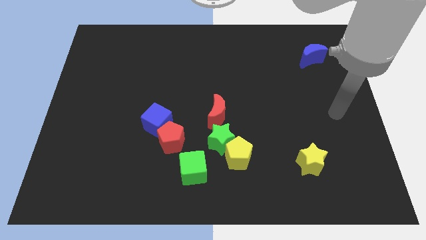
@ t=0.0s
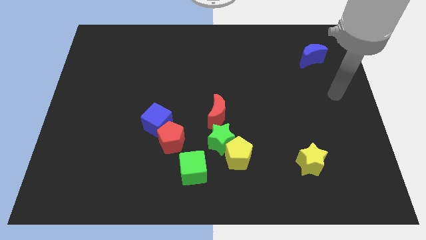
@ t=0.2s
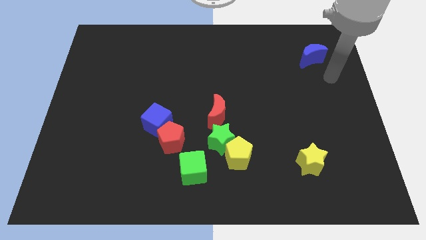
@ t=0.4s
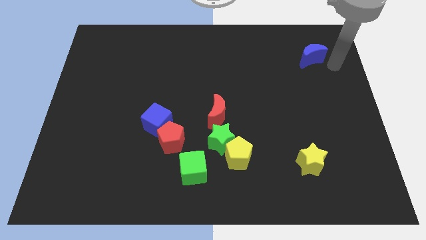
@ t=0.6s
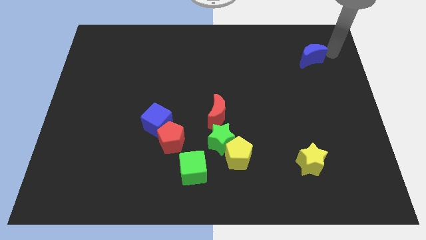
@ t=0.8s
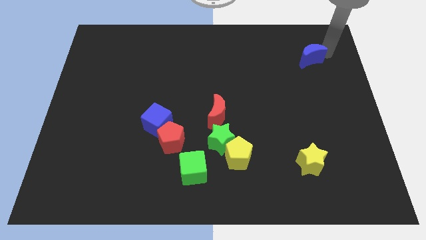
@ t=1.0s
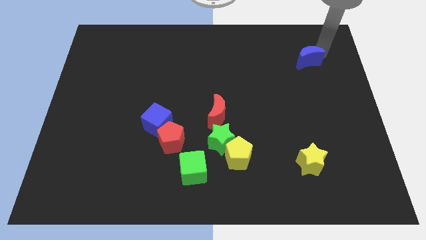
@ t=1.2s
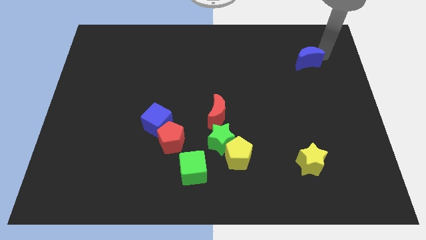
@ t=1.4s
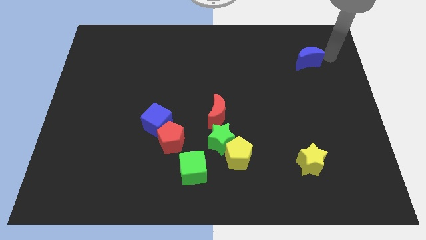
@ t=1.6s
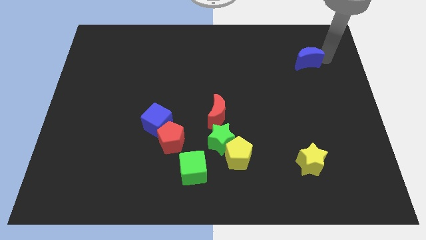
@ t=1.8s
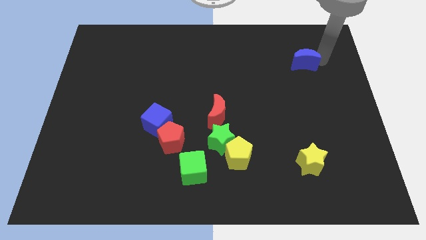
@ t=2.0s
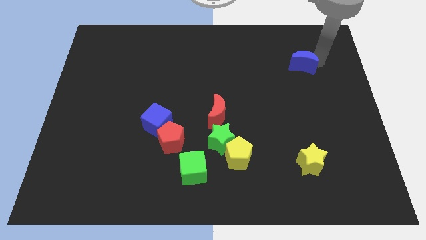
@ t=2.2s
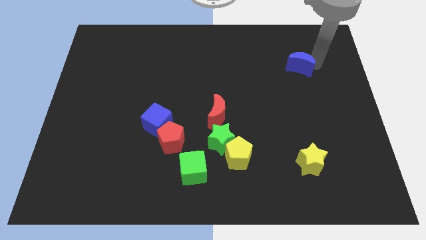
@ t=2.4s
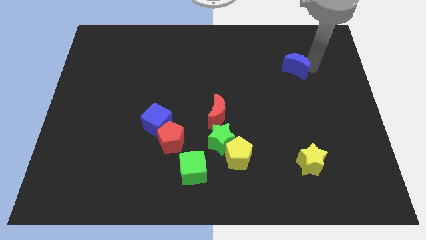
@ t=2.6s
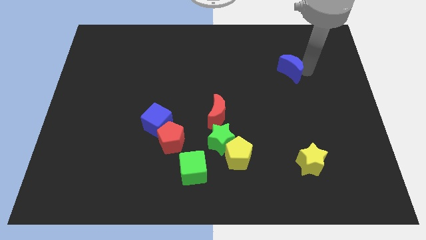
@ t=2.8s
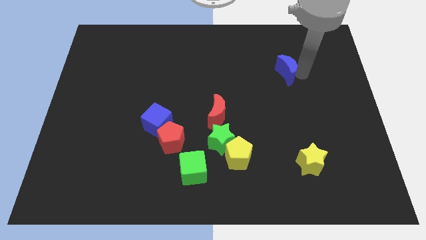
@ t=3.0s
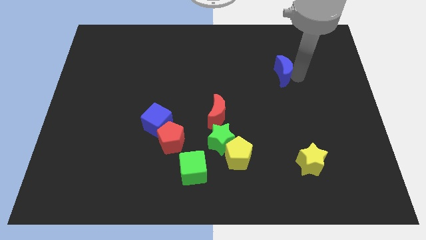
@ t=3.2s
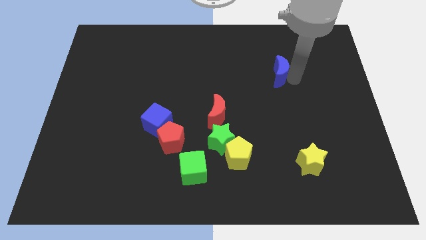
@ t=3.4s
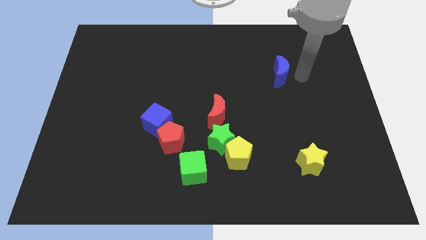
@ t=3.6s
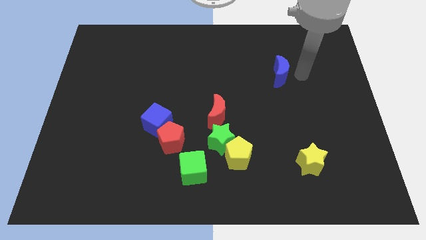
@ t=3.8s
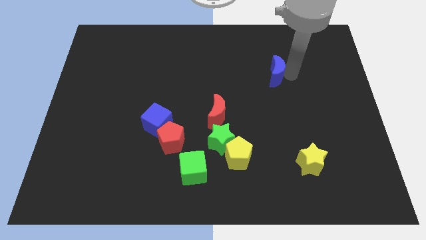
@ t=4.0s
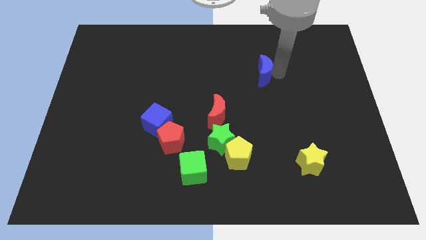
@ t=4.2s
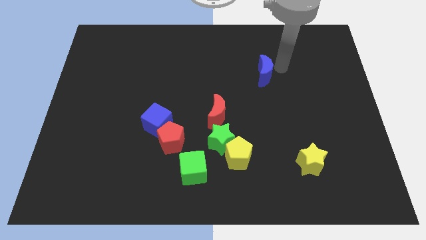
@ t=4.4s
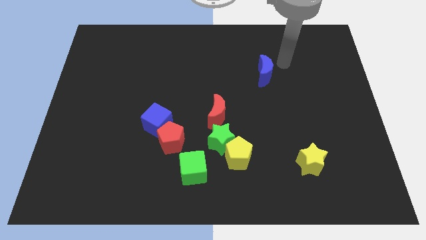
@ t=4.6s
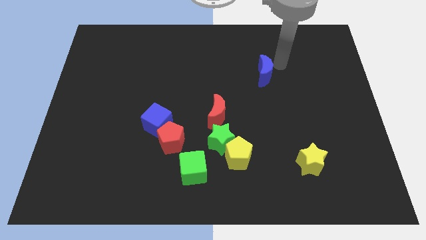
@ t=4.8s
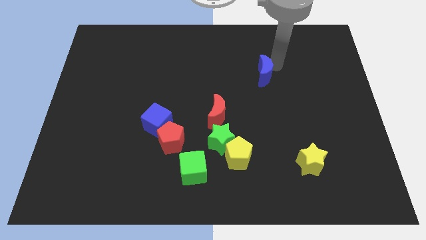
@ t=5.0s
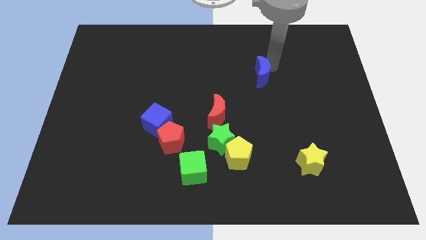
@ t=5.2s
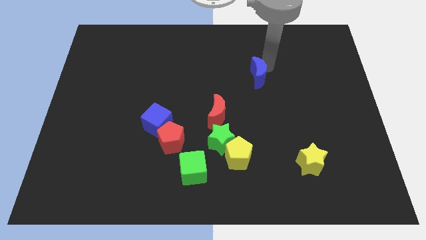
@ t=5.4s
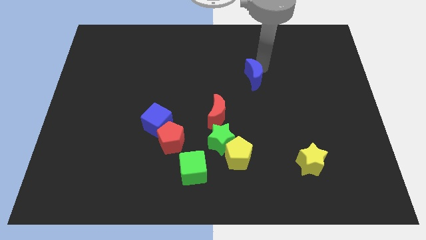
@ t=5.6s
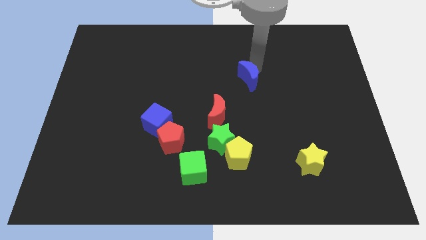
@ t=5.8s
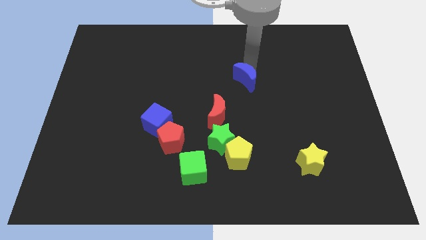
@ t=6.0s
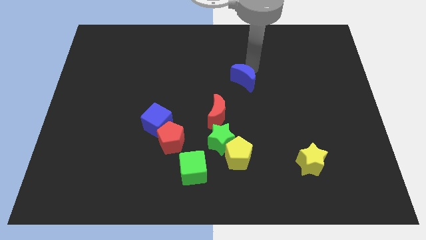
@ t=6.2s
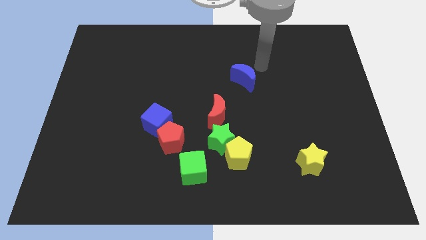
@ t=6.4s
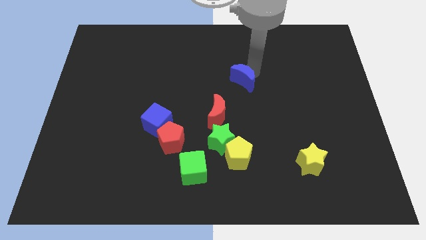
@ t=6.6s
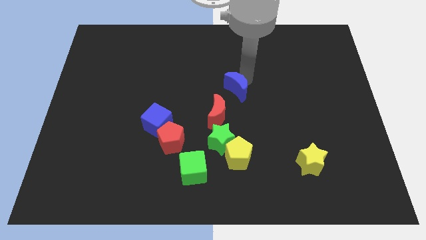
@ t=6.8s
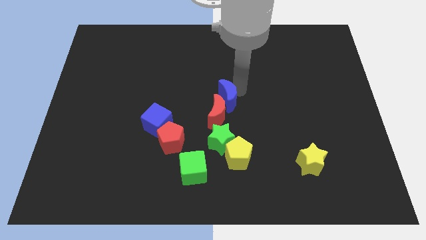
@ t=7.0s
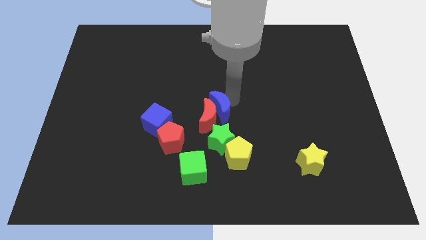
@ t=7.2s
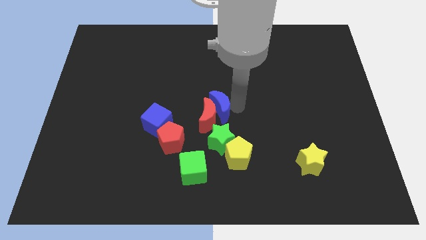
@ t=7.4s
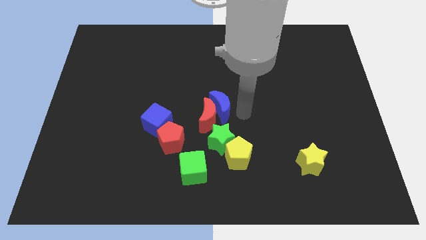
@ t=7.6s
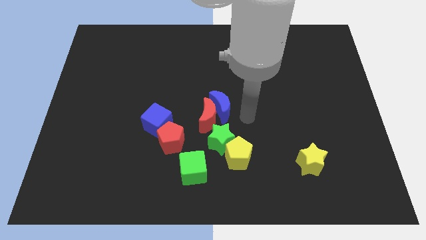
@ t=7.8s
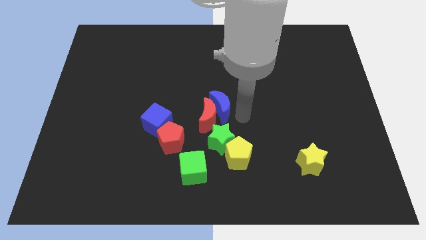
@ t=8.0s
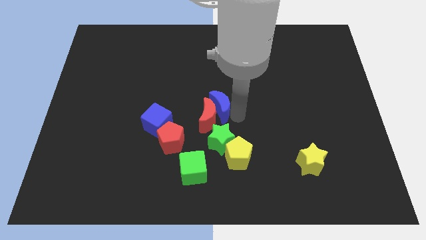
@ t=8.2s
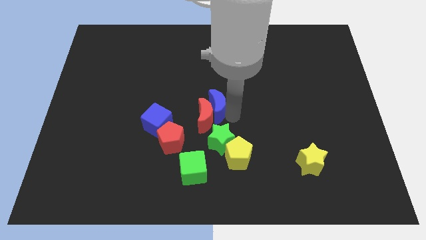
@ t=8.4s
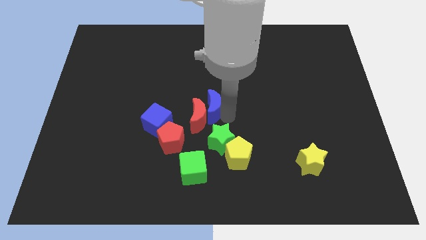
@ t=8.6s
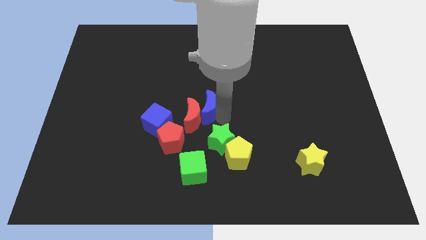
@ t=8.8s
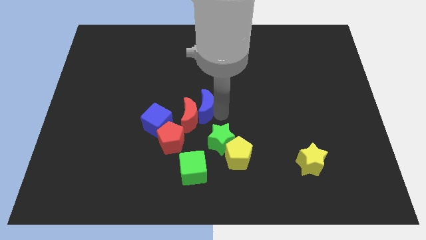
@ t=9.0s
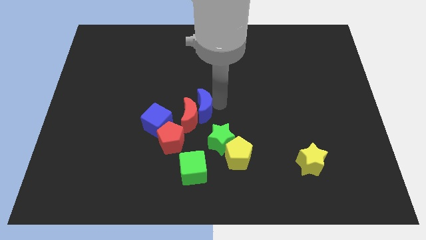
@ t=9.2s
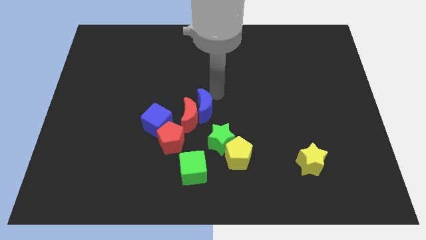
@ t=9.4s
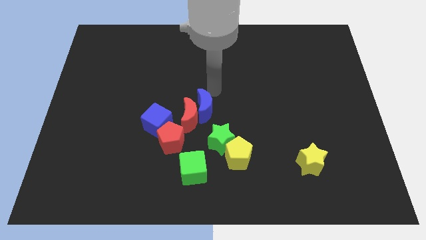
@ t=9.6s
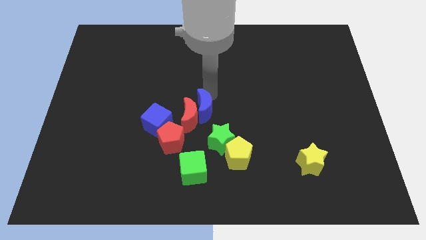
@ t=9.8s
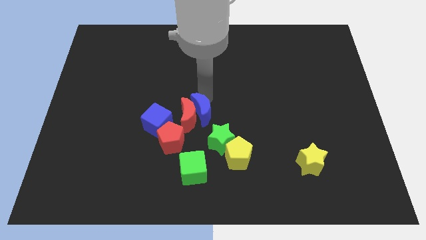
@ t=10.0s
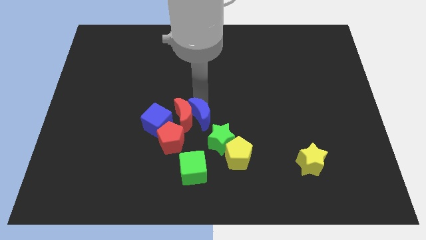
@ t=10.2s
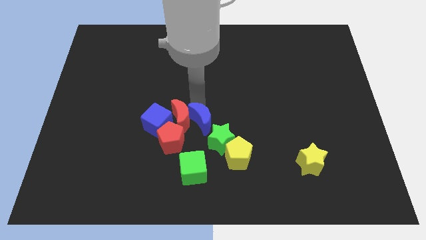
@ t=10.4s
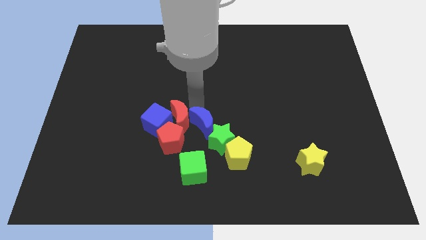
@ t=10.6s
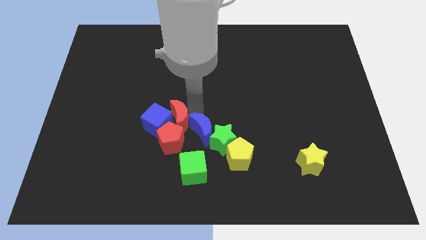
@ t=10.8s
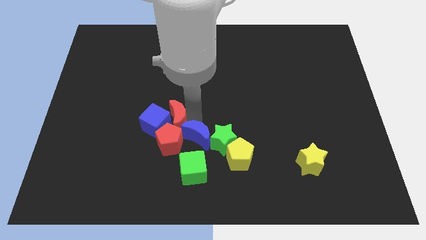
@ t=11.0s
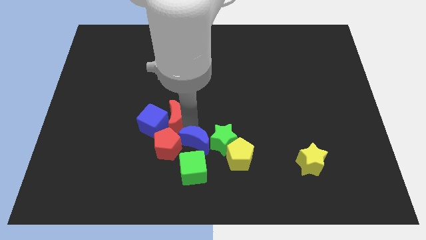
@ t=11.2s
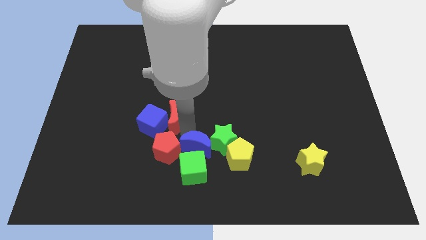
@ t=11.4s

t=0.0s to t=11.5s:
put the blue moon next to the green cube
